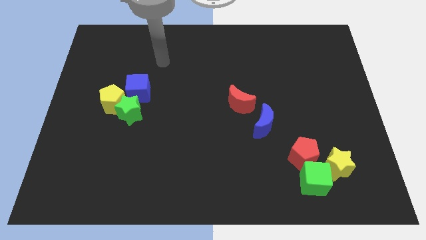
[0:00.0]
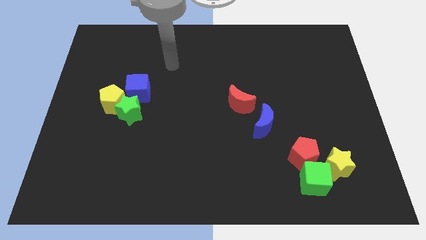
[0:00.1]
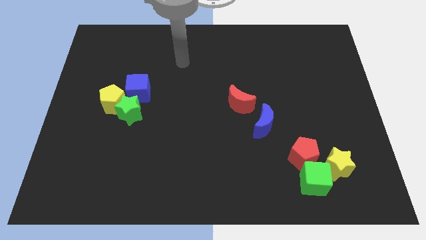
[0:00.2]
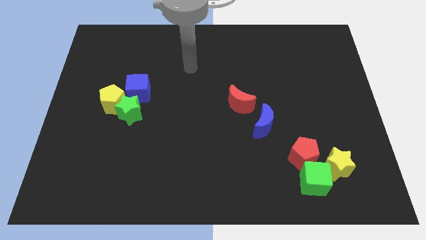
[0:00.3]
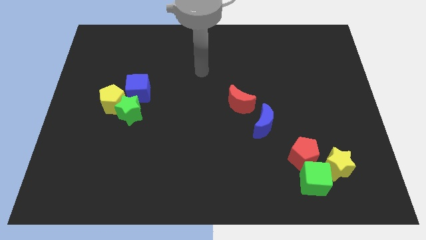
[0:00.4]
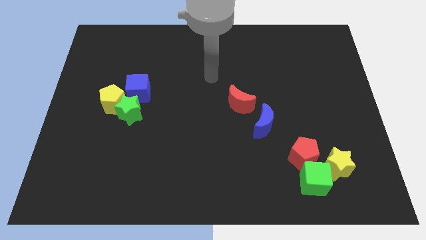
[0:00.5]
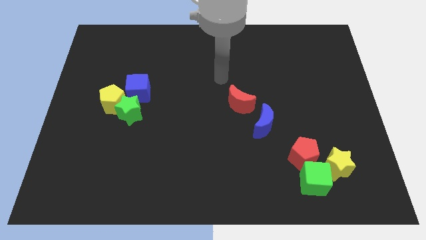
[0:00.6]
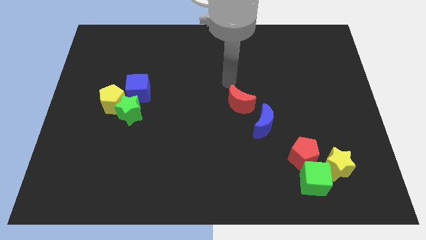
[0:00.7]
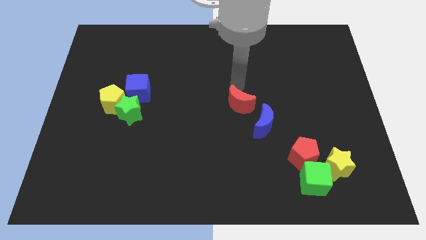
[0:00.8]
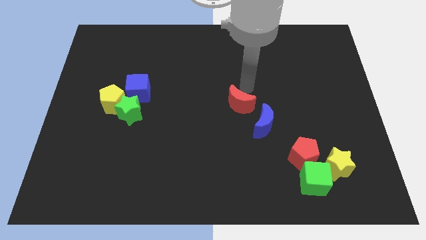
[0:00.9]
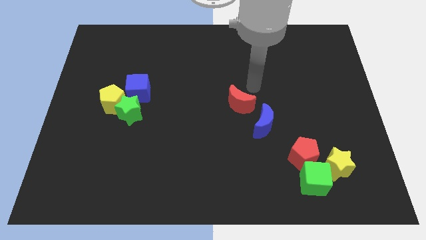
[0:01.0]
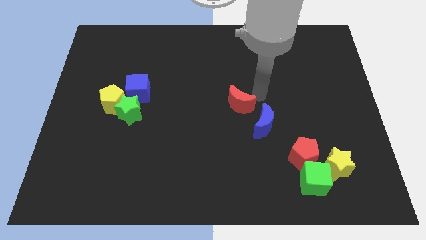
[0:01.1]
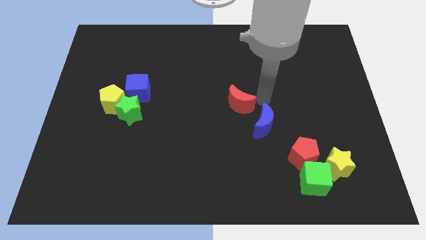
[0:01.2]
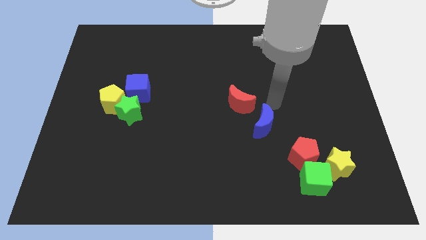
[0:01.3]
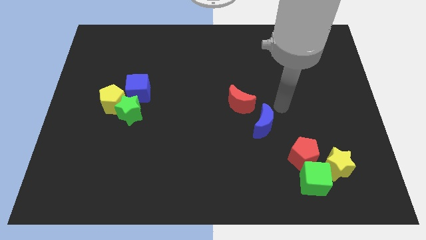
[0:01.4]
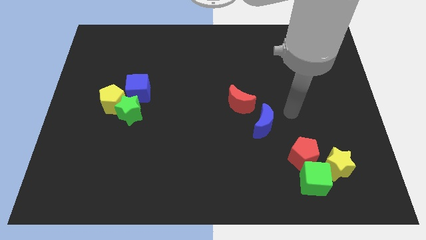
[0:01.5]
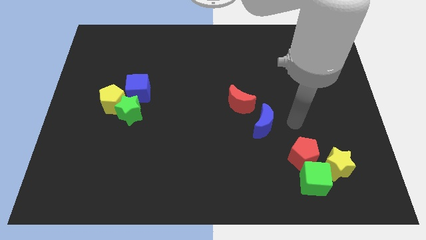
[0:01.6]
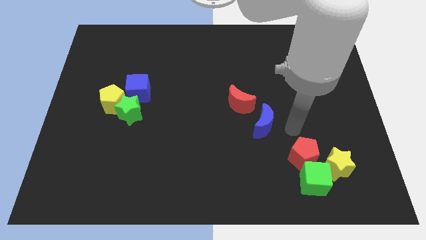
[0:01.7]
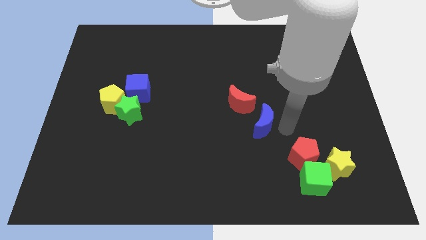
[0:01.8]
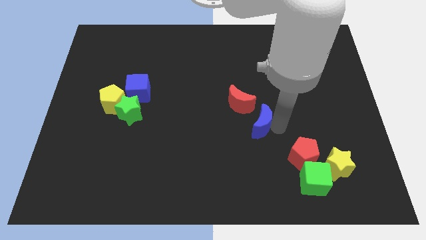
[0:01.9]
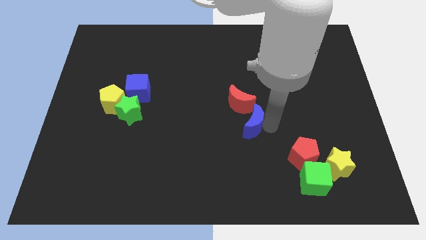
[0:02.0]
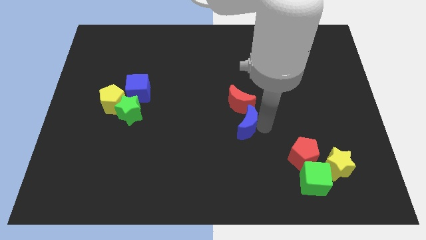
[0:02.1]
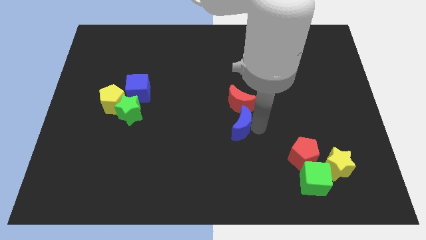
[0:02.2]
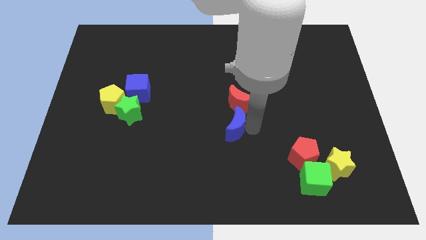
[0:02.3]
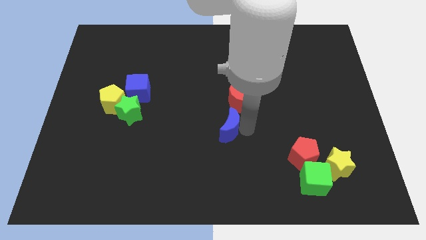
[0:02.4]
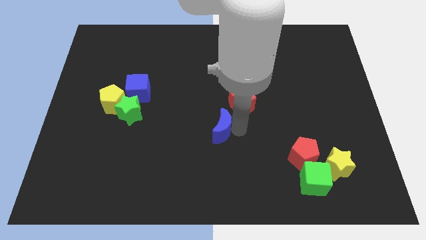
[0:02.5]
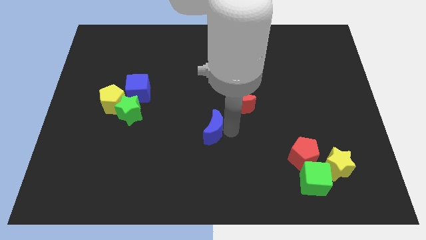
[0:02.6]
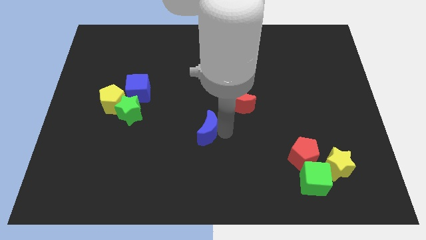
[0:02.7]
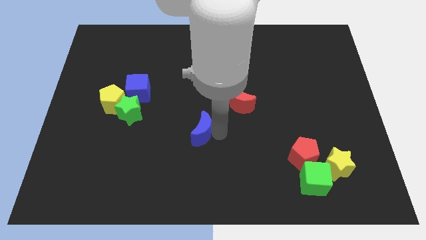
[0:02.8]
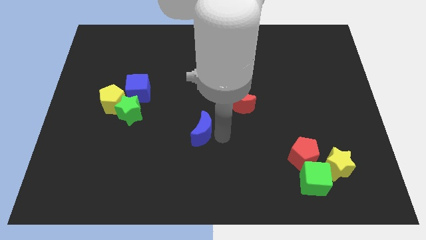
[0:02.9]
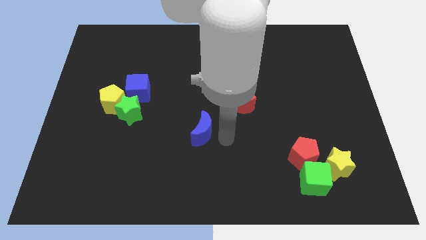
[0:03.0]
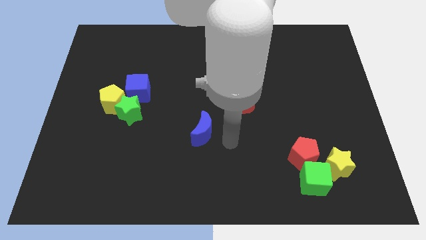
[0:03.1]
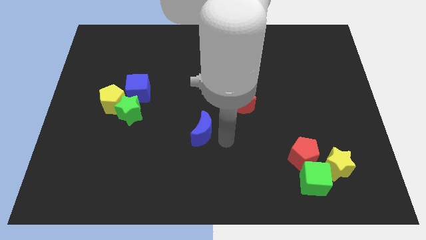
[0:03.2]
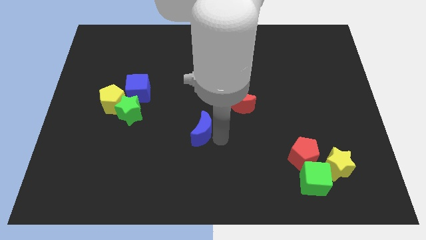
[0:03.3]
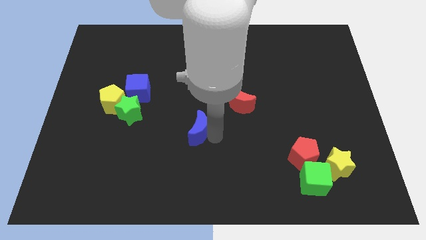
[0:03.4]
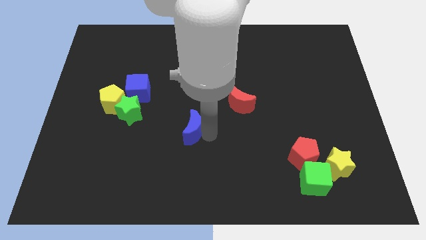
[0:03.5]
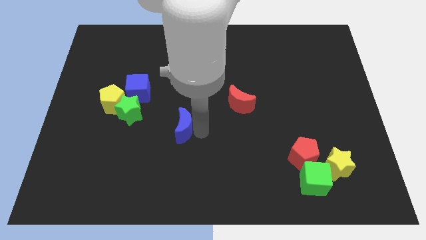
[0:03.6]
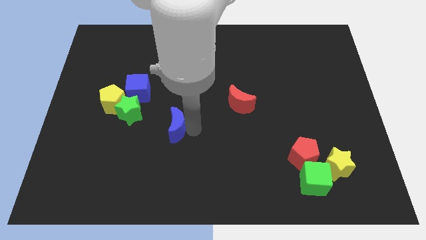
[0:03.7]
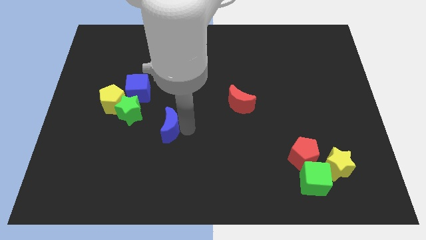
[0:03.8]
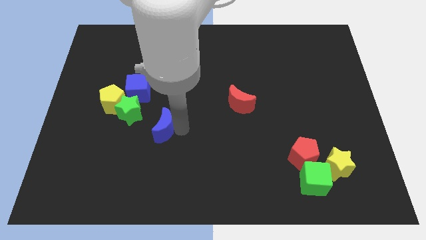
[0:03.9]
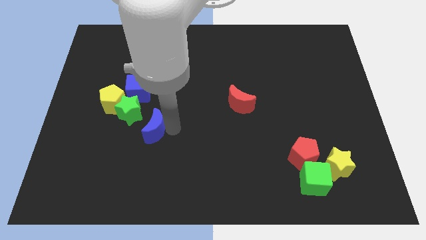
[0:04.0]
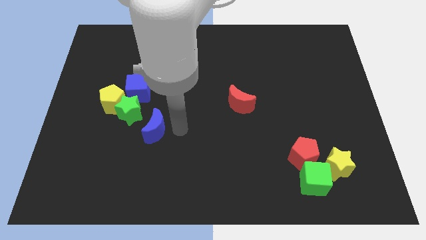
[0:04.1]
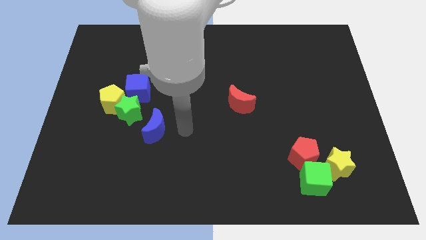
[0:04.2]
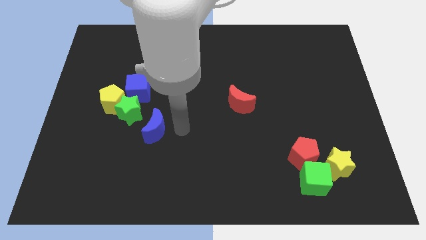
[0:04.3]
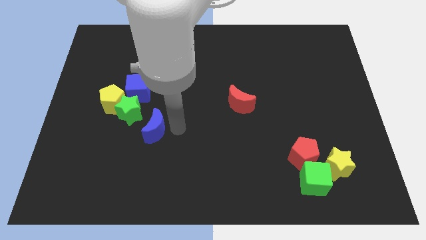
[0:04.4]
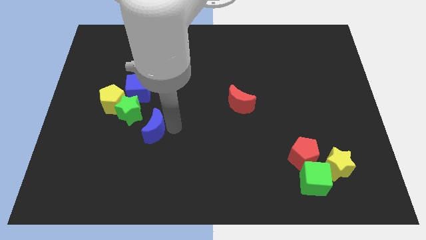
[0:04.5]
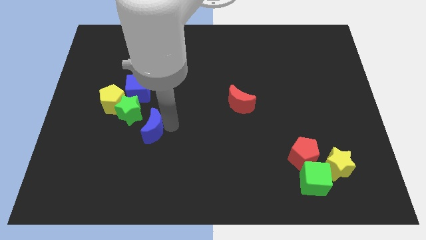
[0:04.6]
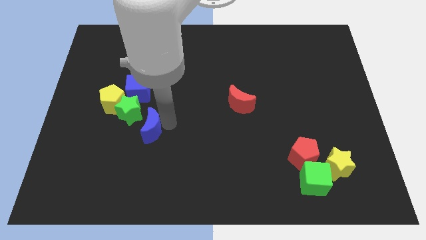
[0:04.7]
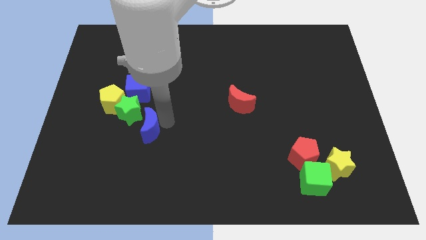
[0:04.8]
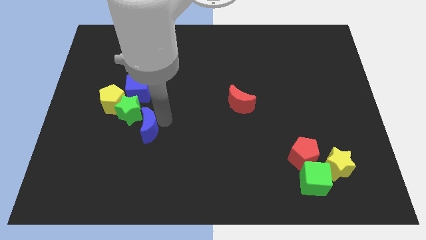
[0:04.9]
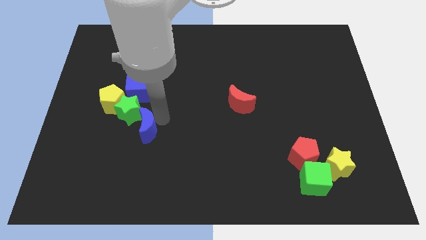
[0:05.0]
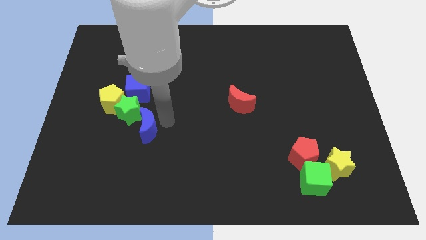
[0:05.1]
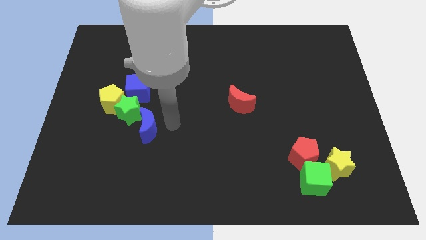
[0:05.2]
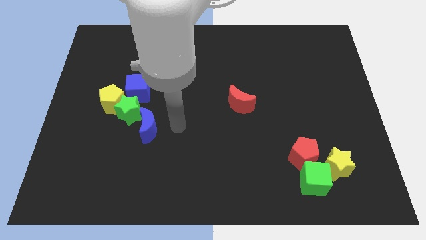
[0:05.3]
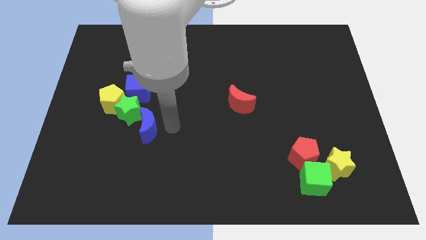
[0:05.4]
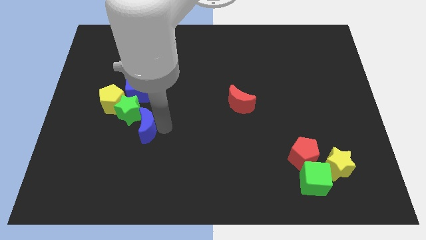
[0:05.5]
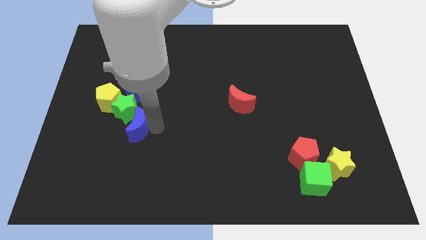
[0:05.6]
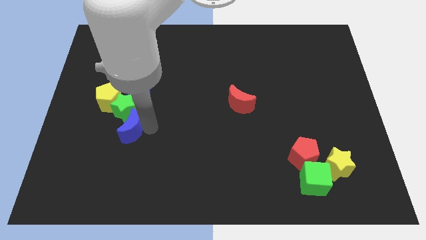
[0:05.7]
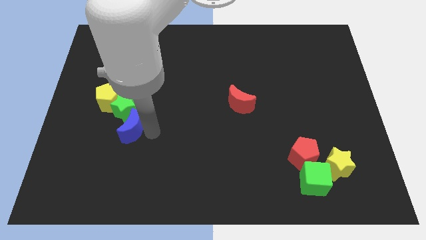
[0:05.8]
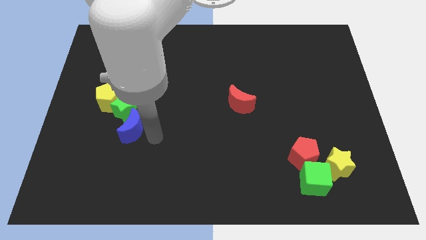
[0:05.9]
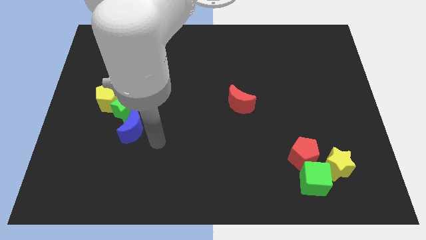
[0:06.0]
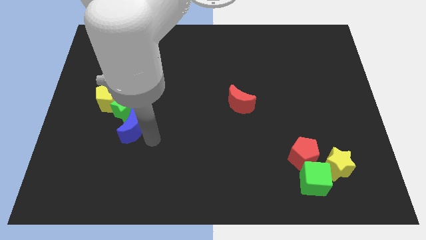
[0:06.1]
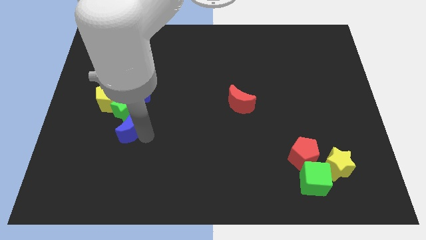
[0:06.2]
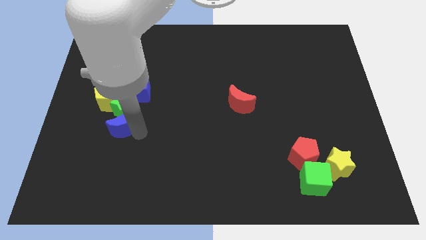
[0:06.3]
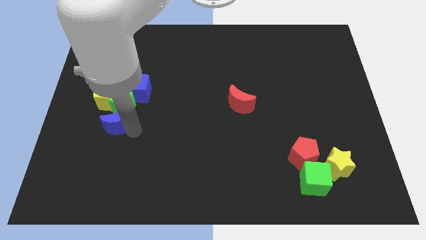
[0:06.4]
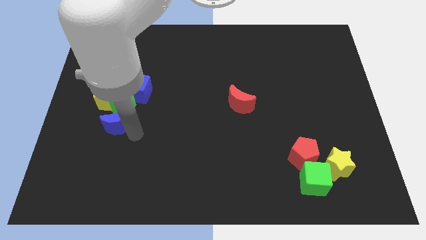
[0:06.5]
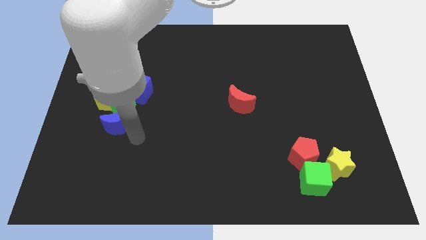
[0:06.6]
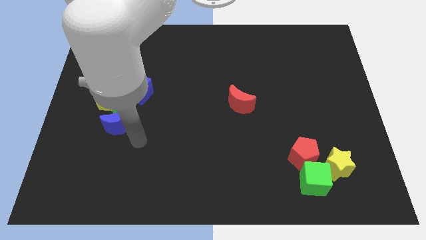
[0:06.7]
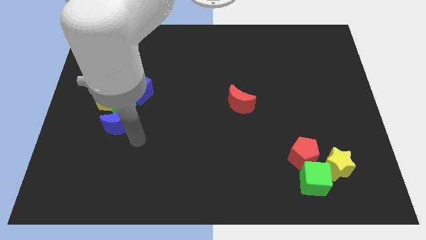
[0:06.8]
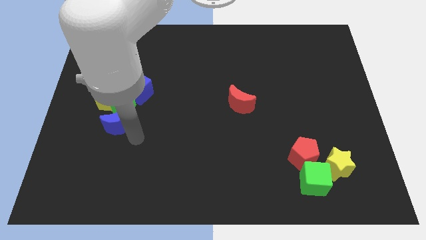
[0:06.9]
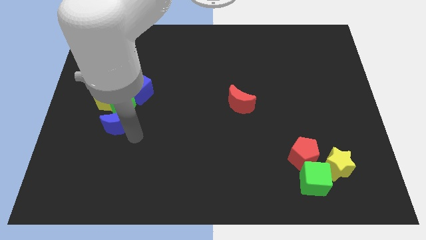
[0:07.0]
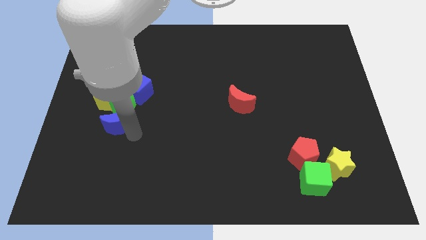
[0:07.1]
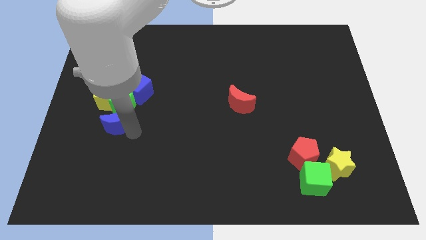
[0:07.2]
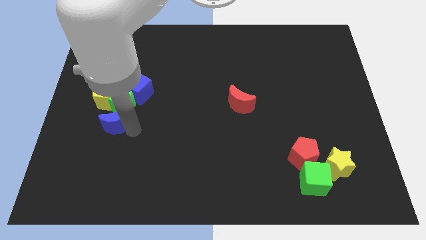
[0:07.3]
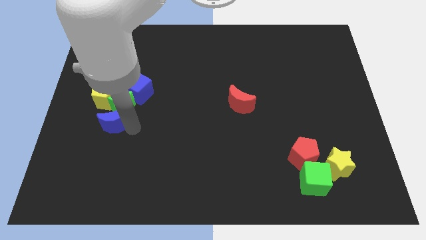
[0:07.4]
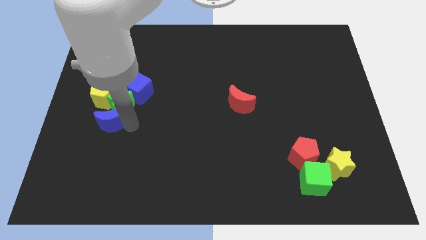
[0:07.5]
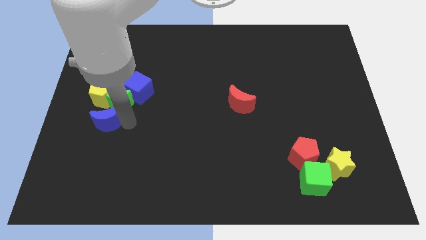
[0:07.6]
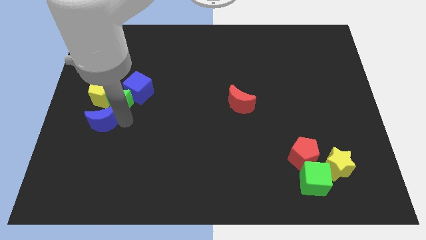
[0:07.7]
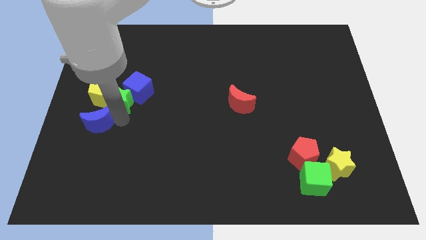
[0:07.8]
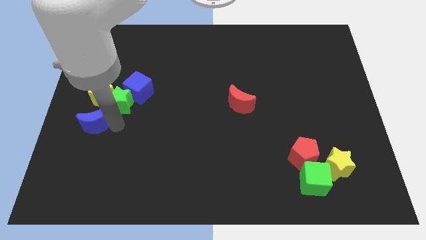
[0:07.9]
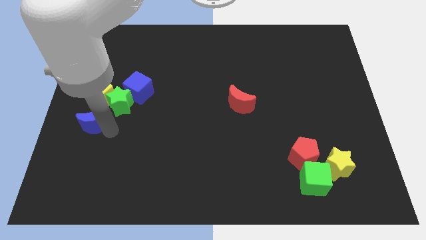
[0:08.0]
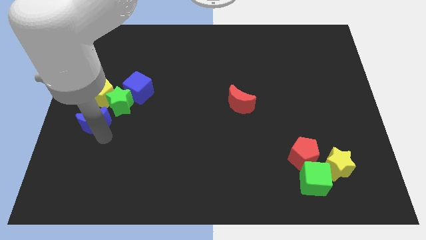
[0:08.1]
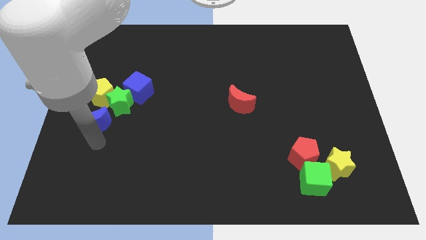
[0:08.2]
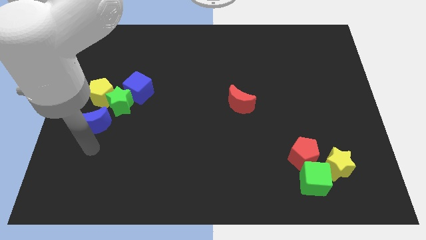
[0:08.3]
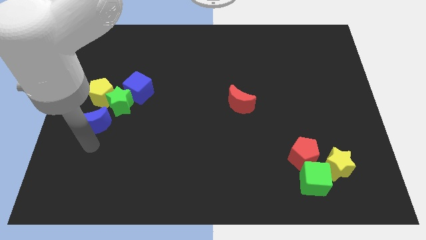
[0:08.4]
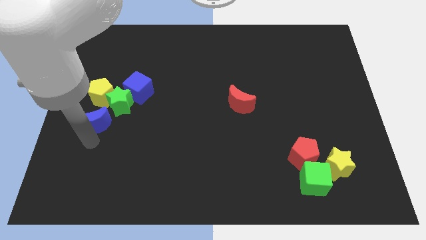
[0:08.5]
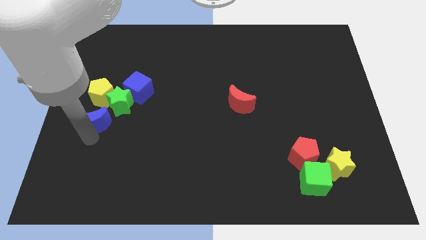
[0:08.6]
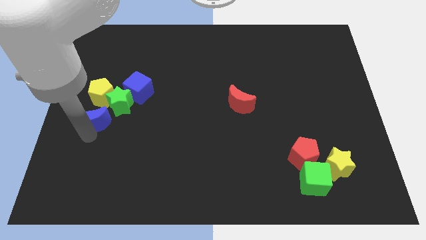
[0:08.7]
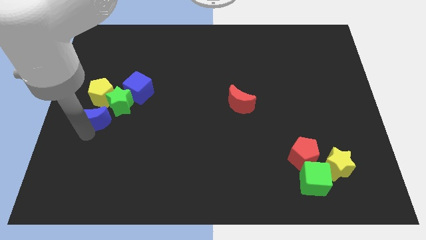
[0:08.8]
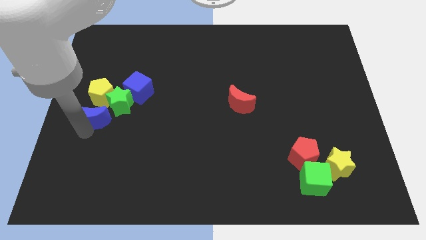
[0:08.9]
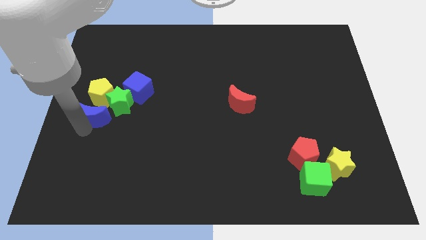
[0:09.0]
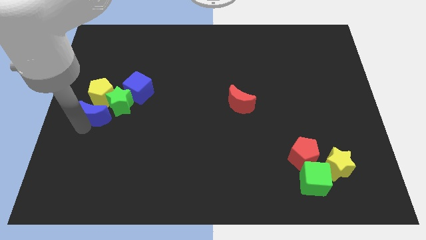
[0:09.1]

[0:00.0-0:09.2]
slide the blue moon close to the yellow pentagon
